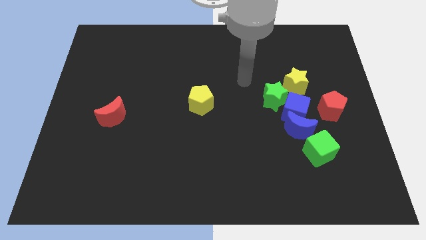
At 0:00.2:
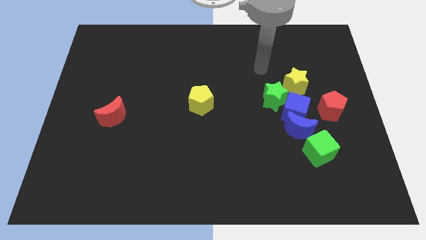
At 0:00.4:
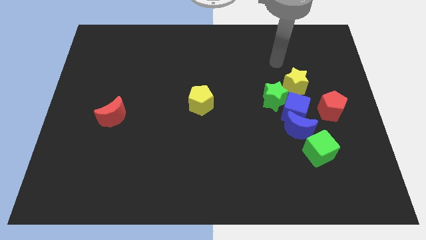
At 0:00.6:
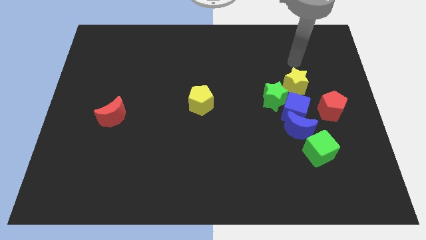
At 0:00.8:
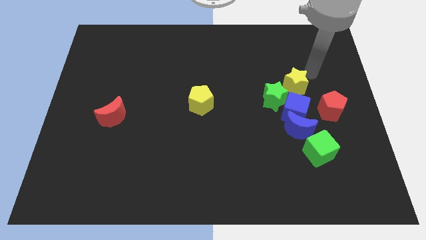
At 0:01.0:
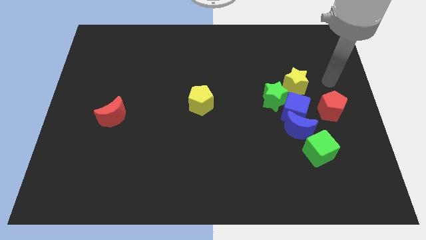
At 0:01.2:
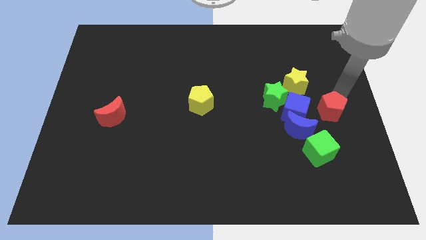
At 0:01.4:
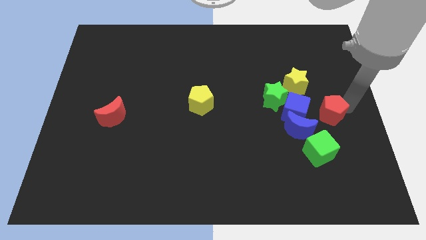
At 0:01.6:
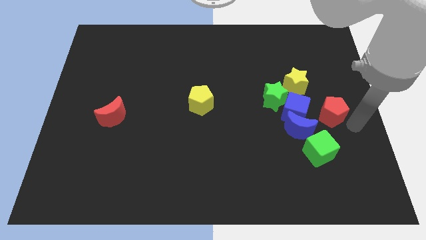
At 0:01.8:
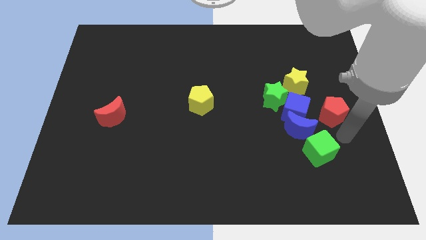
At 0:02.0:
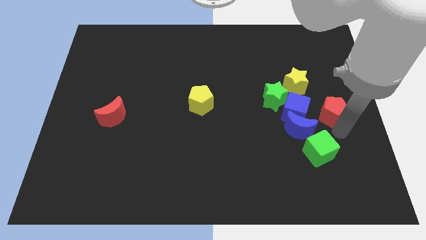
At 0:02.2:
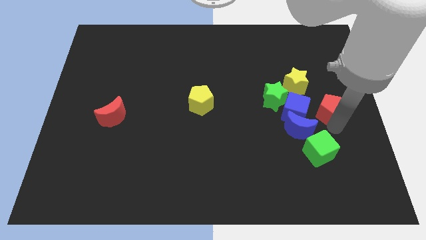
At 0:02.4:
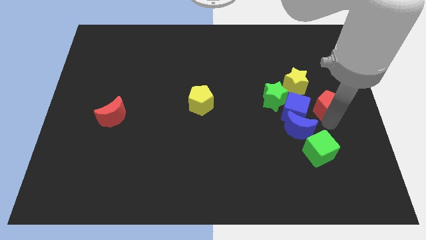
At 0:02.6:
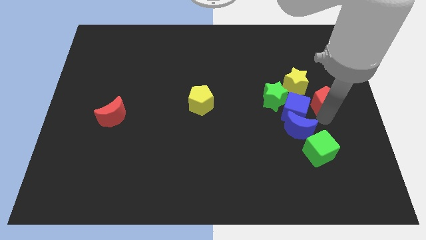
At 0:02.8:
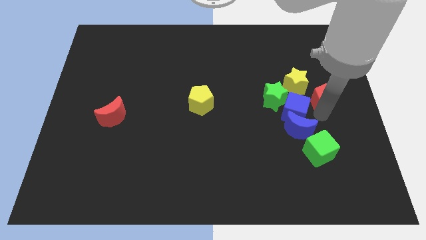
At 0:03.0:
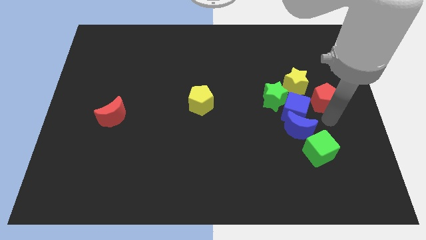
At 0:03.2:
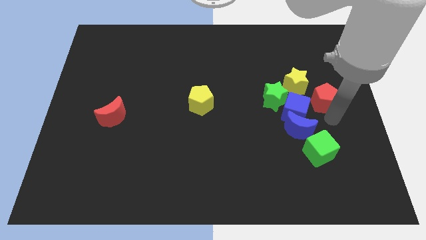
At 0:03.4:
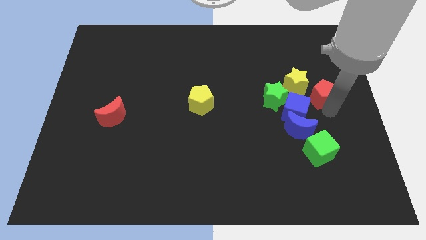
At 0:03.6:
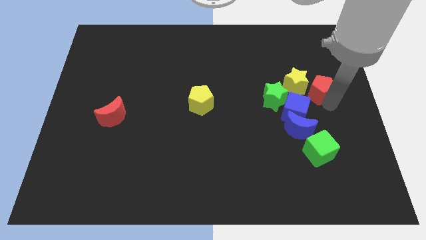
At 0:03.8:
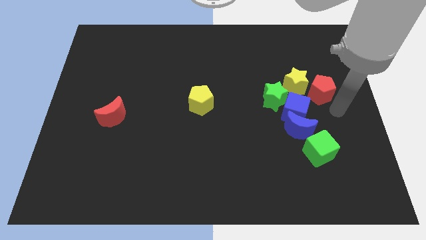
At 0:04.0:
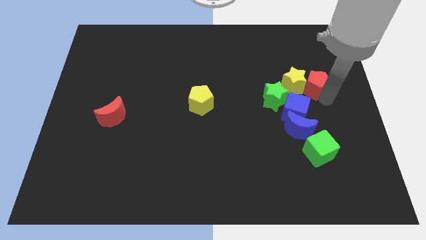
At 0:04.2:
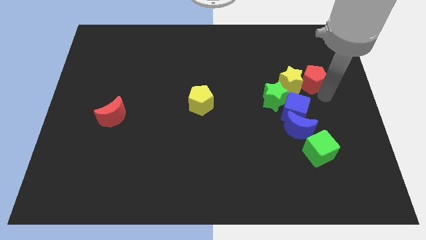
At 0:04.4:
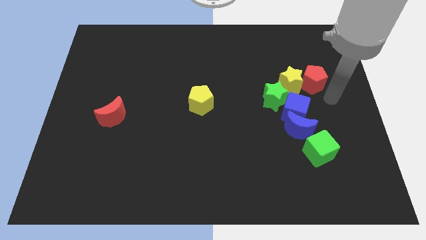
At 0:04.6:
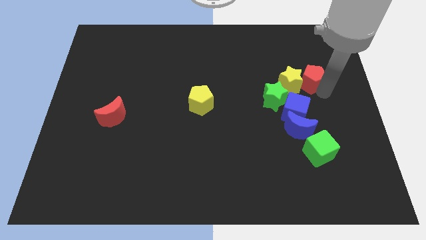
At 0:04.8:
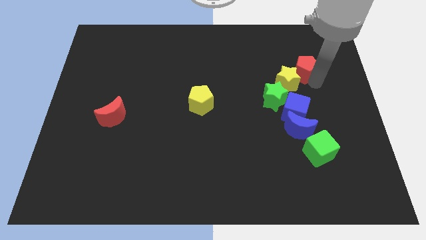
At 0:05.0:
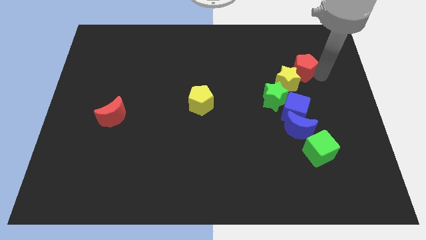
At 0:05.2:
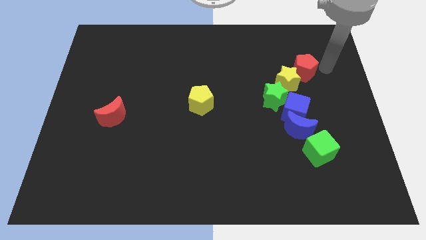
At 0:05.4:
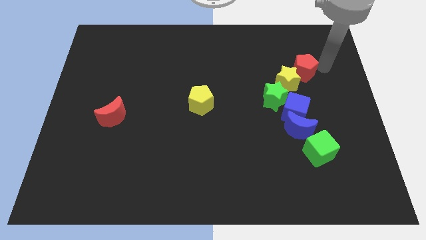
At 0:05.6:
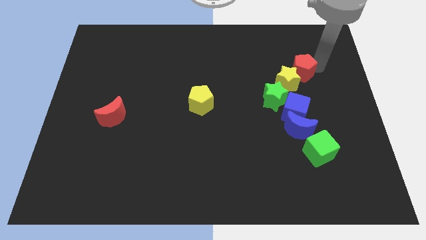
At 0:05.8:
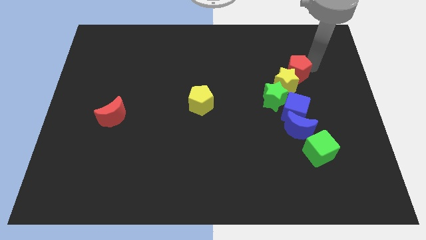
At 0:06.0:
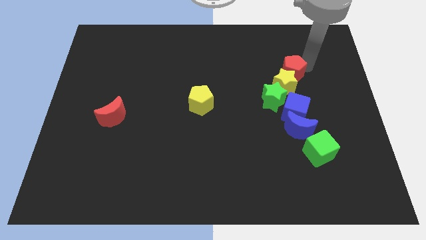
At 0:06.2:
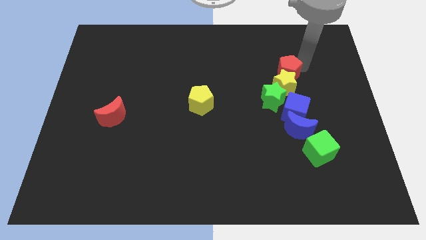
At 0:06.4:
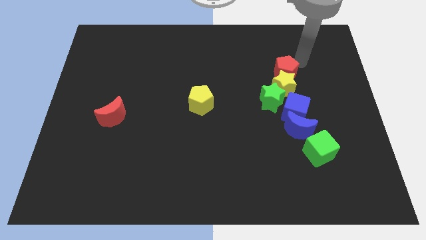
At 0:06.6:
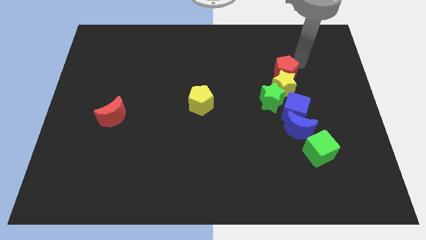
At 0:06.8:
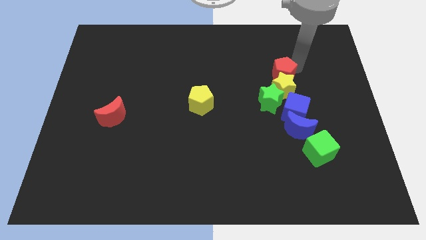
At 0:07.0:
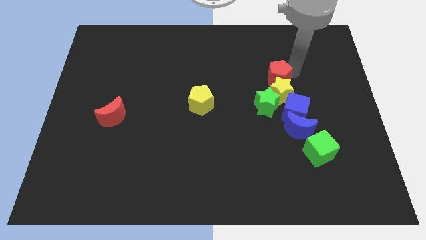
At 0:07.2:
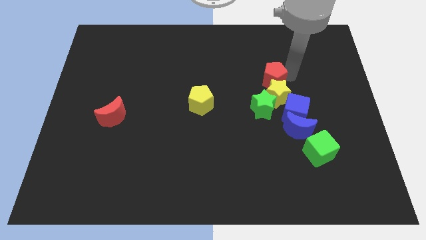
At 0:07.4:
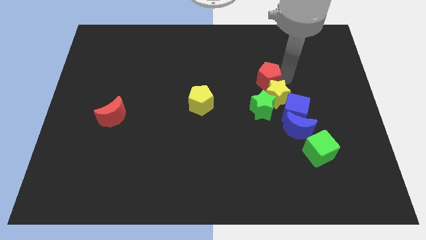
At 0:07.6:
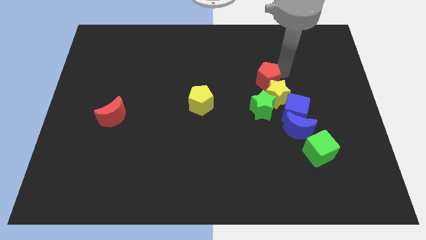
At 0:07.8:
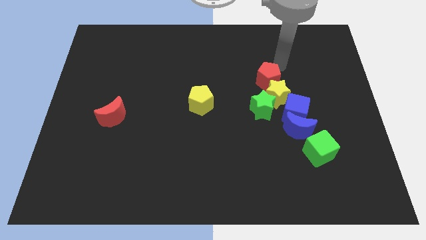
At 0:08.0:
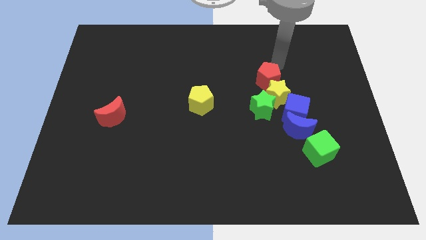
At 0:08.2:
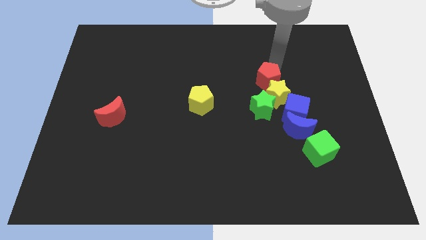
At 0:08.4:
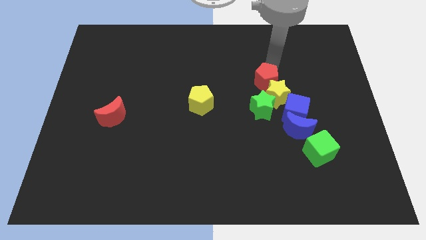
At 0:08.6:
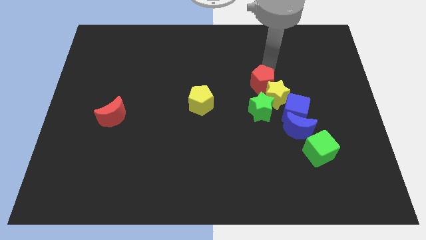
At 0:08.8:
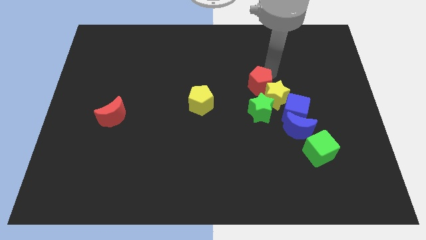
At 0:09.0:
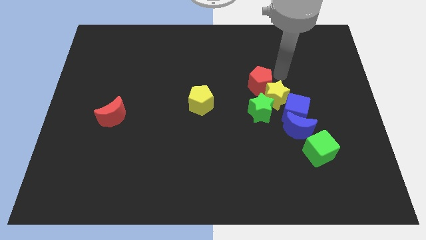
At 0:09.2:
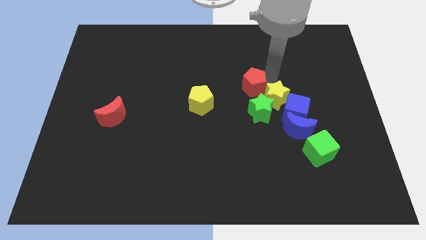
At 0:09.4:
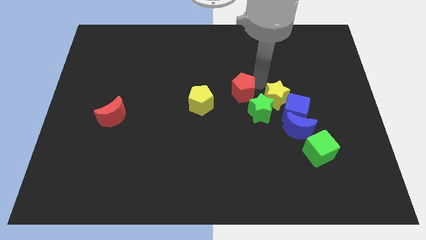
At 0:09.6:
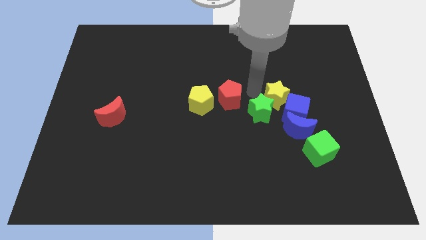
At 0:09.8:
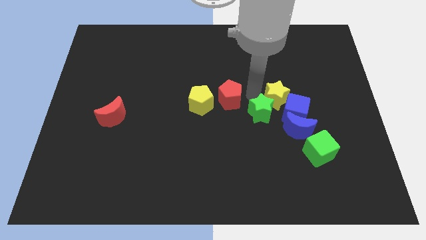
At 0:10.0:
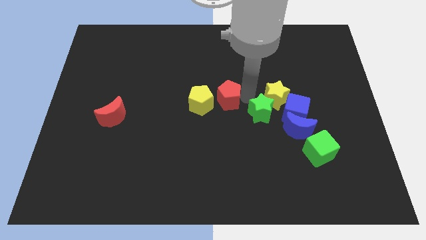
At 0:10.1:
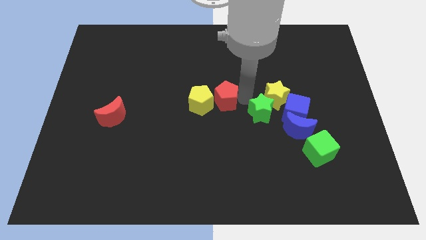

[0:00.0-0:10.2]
put the red pentagon close to the yellow pentagon

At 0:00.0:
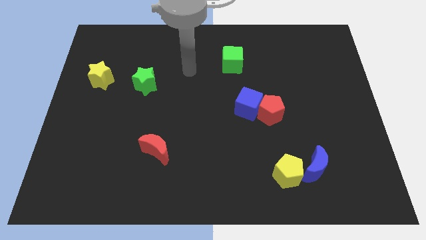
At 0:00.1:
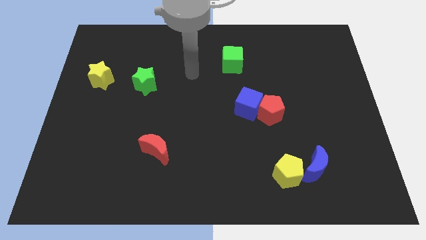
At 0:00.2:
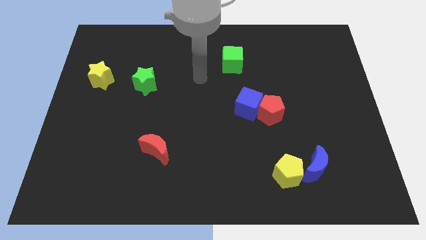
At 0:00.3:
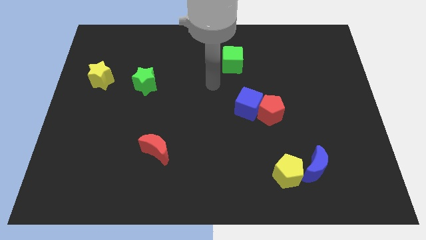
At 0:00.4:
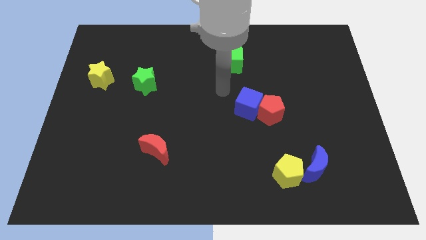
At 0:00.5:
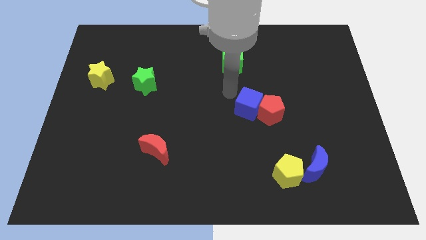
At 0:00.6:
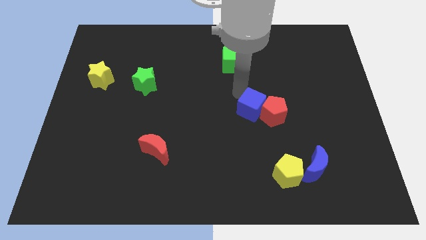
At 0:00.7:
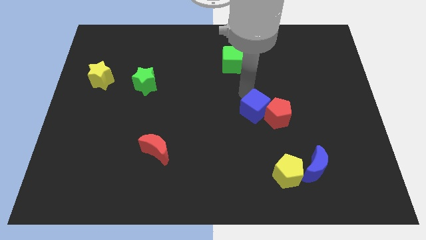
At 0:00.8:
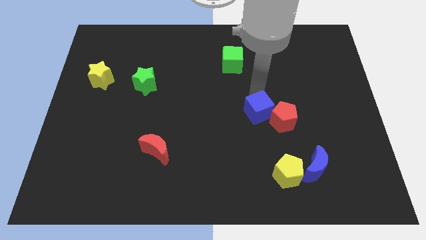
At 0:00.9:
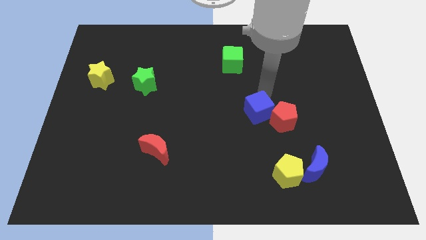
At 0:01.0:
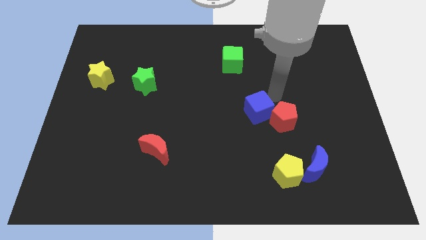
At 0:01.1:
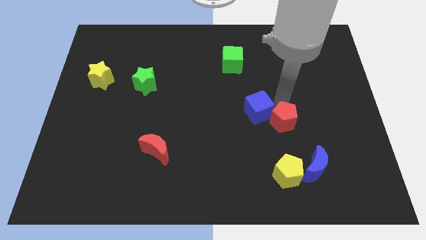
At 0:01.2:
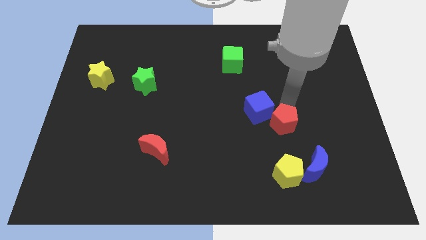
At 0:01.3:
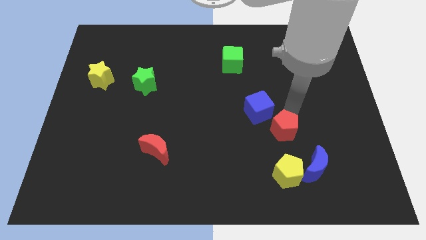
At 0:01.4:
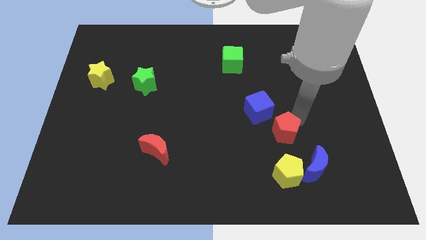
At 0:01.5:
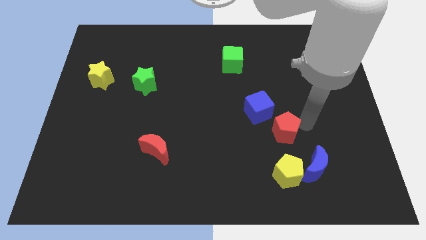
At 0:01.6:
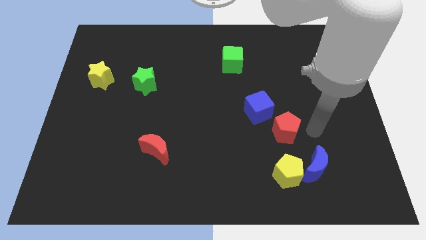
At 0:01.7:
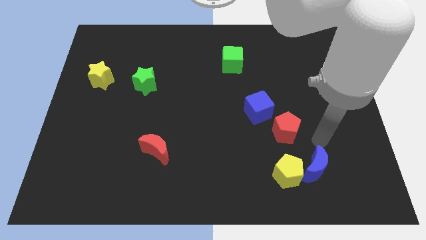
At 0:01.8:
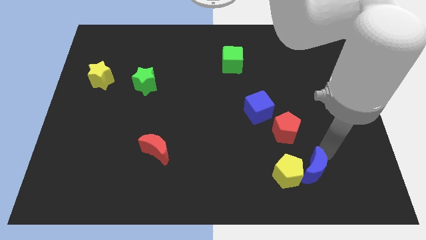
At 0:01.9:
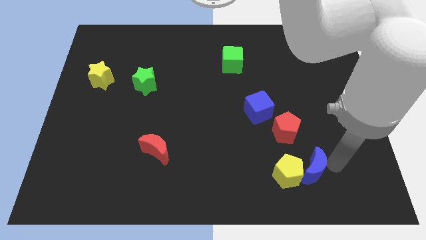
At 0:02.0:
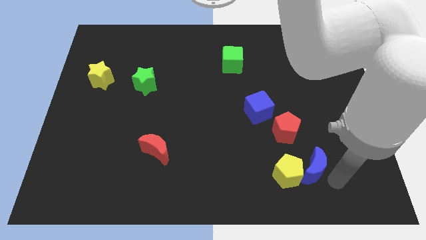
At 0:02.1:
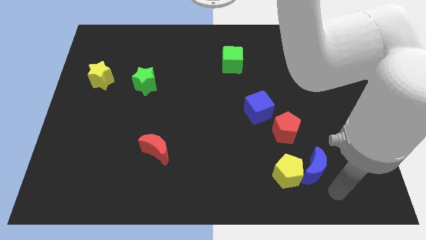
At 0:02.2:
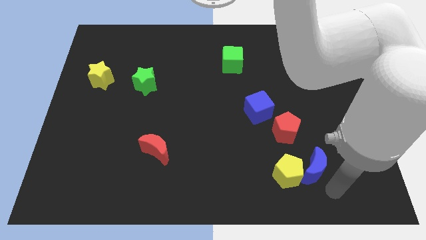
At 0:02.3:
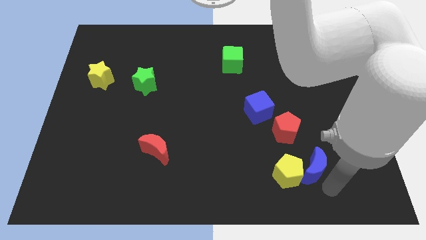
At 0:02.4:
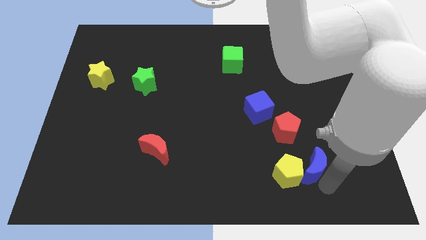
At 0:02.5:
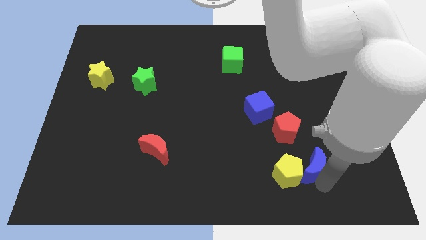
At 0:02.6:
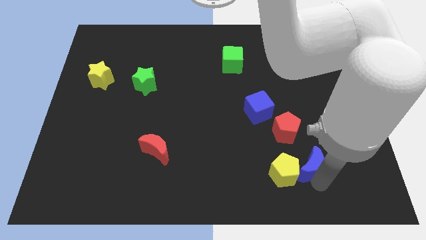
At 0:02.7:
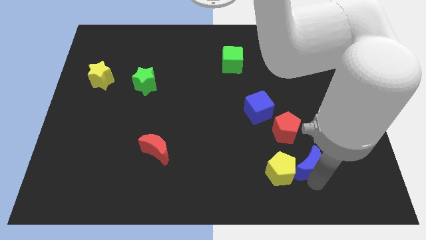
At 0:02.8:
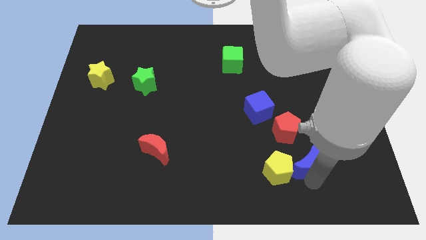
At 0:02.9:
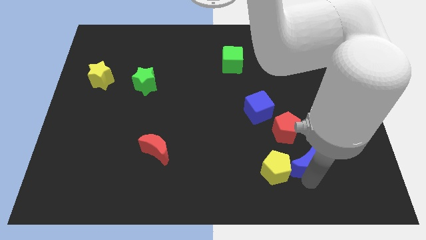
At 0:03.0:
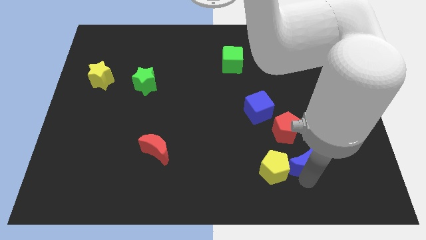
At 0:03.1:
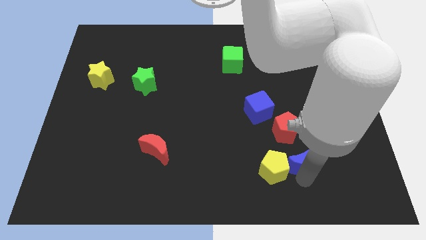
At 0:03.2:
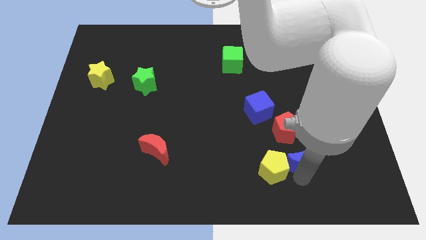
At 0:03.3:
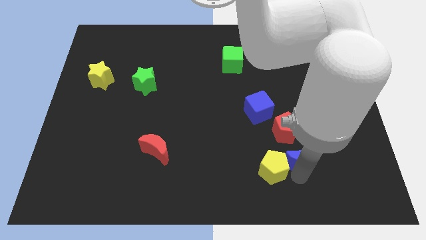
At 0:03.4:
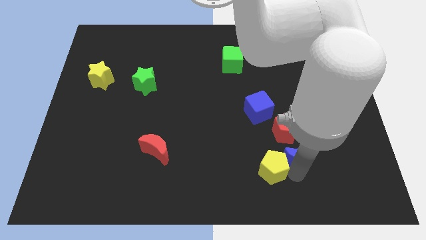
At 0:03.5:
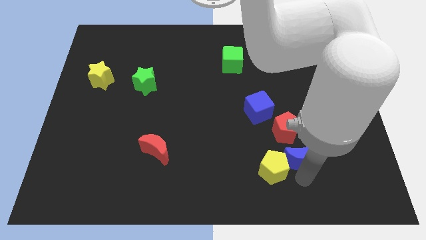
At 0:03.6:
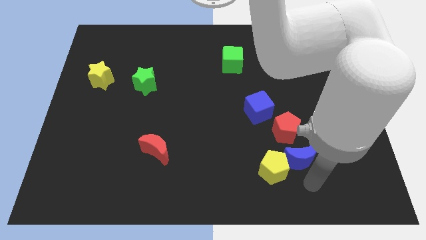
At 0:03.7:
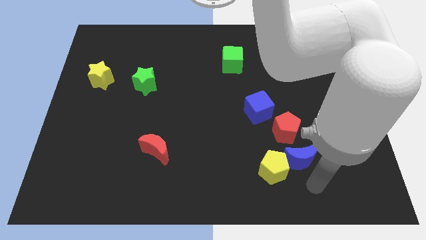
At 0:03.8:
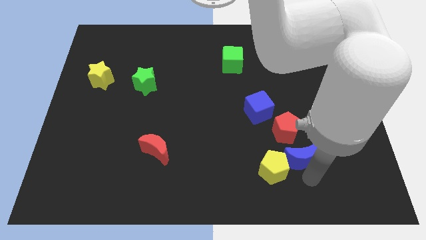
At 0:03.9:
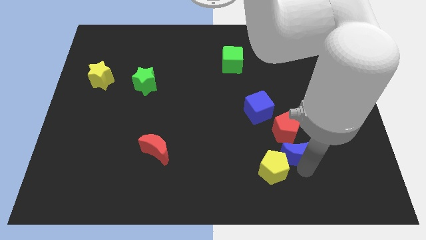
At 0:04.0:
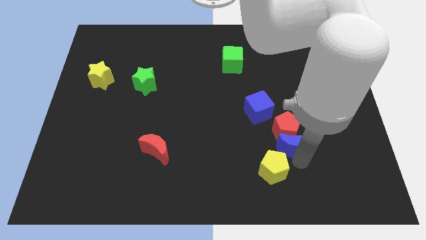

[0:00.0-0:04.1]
put the blue moon close to the red pentagon
